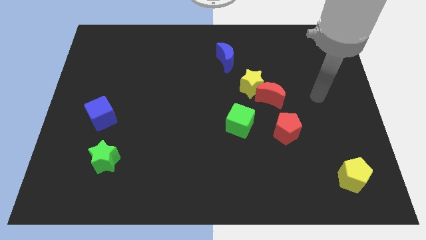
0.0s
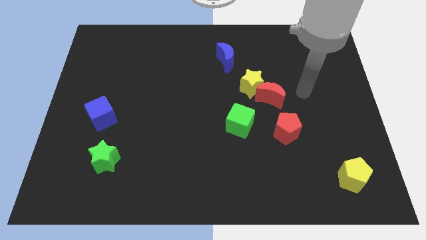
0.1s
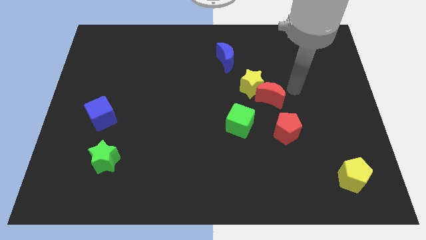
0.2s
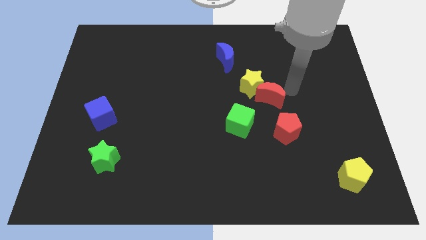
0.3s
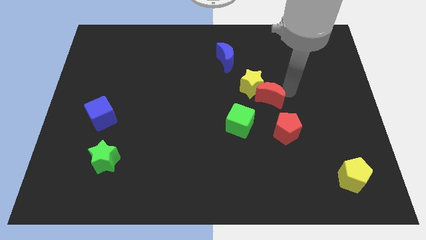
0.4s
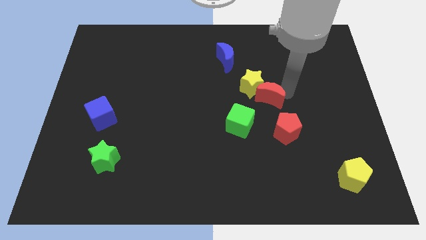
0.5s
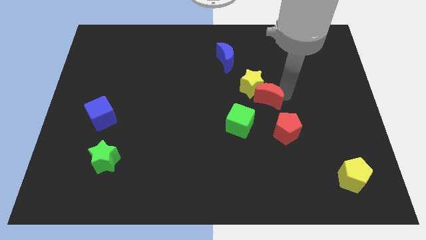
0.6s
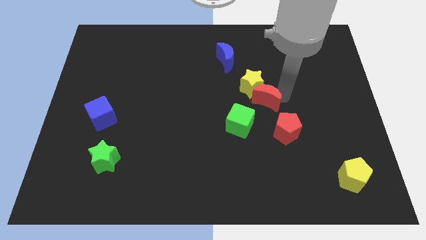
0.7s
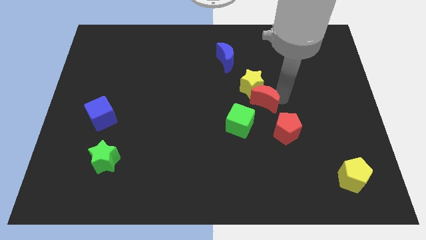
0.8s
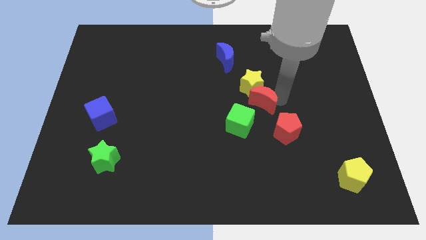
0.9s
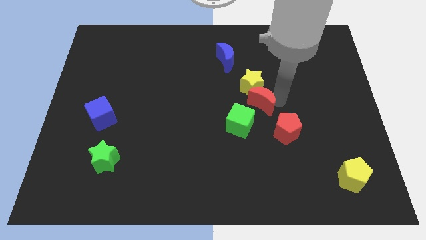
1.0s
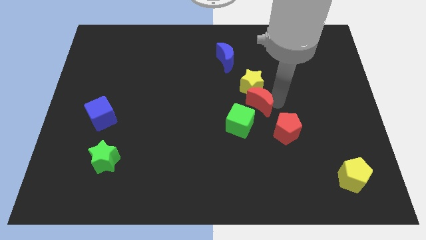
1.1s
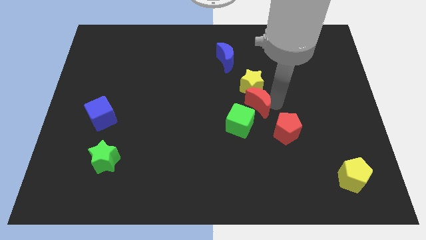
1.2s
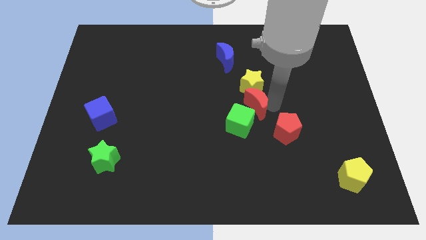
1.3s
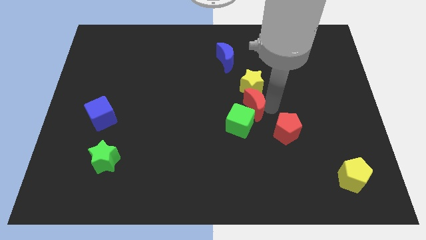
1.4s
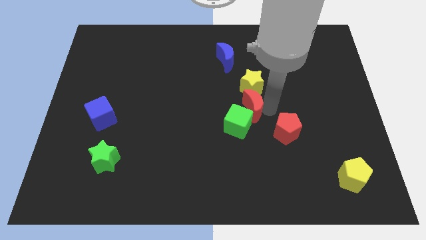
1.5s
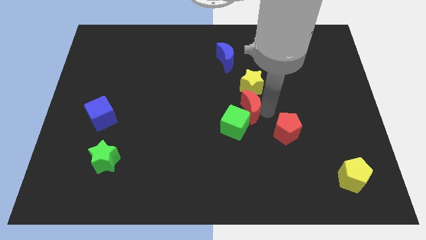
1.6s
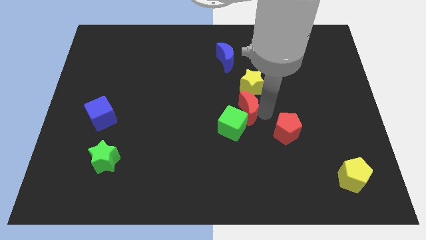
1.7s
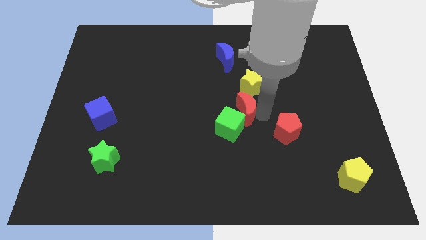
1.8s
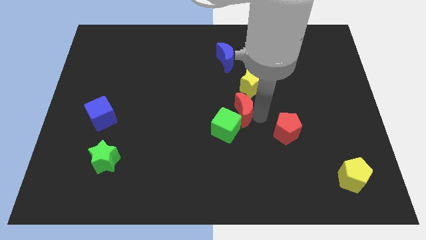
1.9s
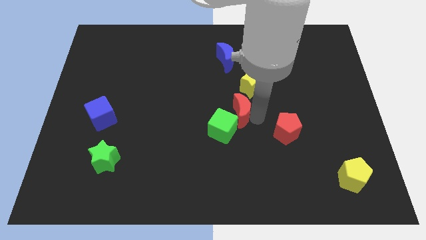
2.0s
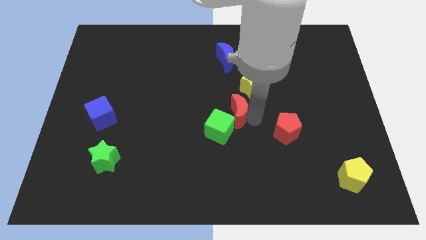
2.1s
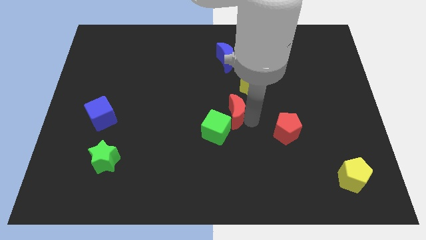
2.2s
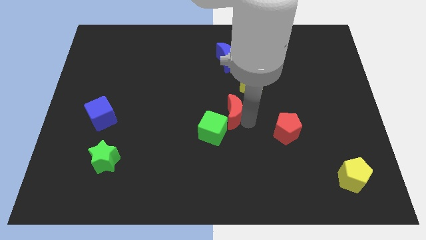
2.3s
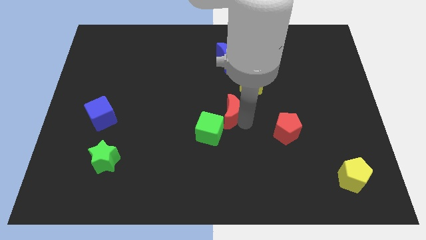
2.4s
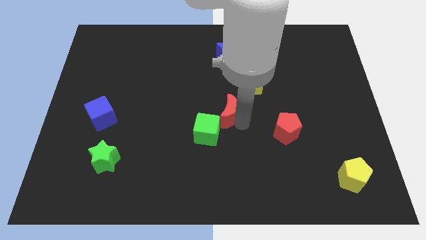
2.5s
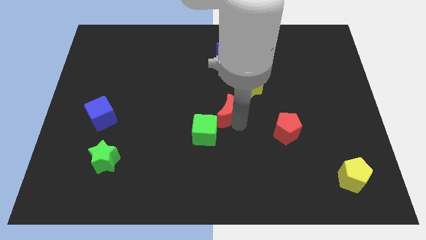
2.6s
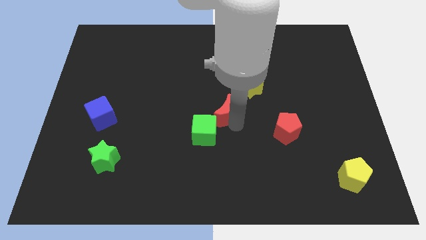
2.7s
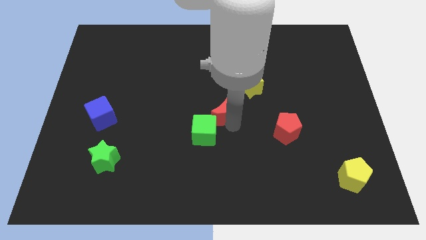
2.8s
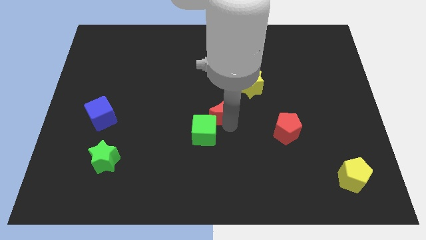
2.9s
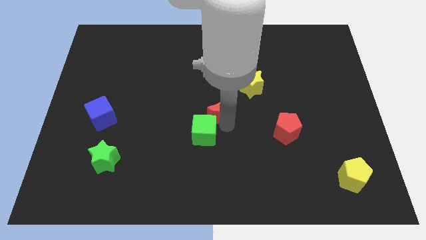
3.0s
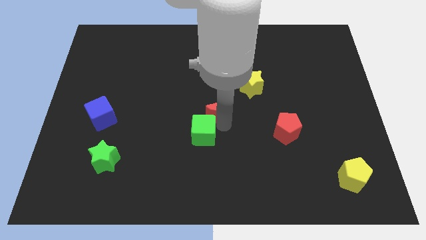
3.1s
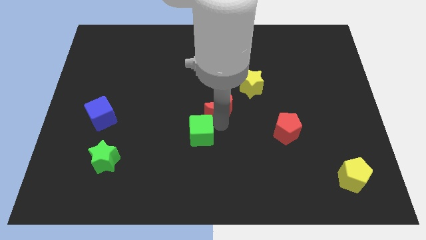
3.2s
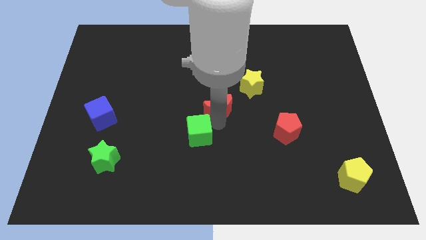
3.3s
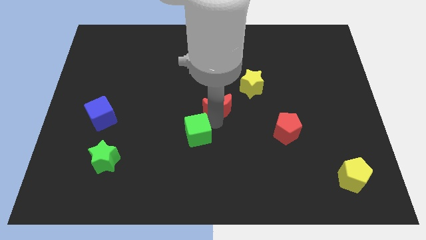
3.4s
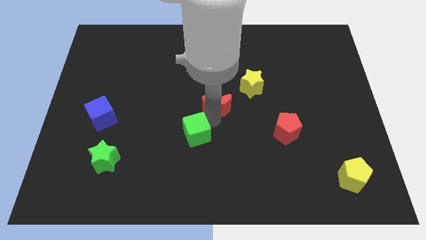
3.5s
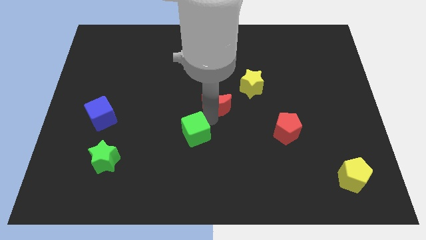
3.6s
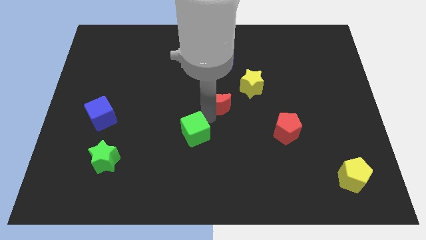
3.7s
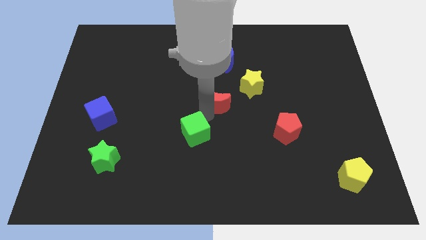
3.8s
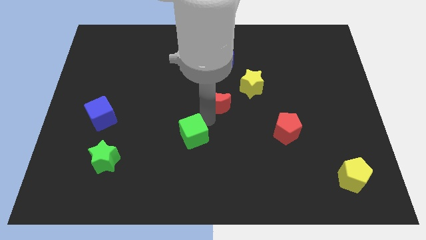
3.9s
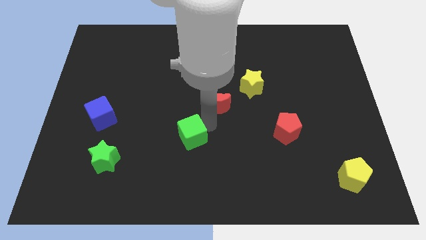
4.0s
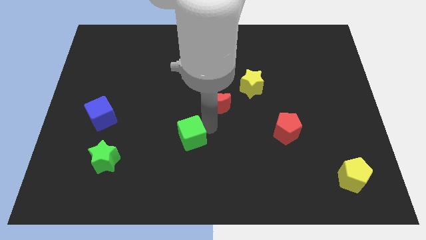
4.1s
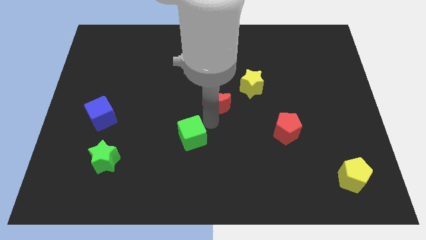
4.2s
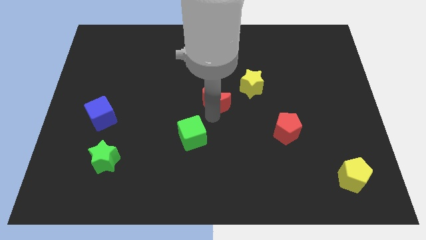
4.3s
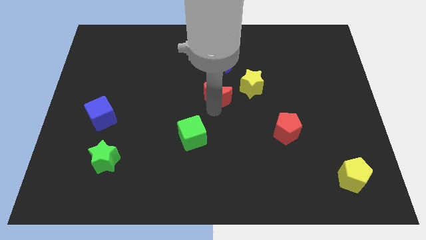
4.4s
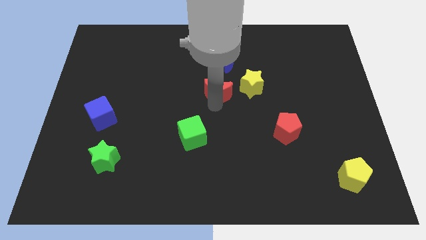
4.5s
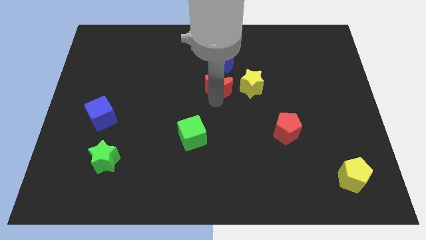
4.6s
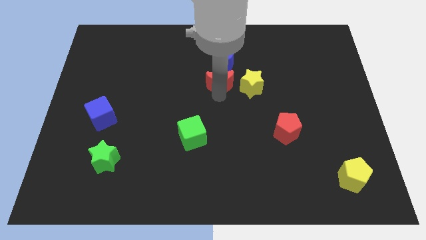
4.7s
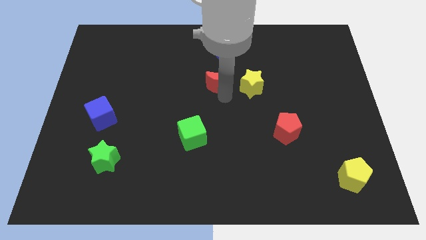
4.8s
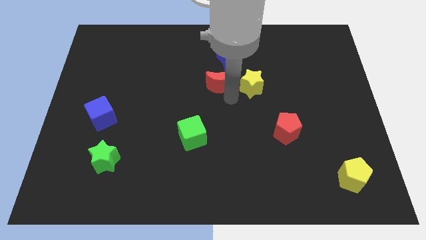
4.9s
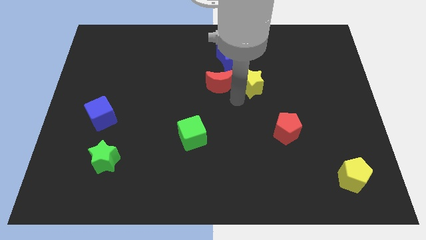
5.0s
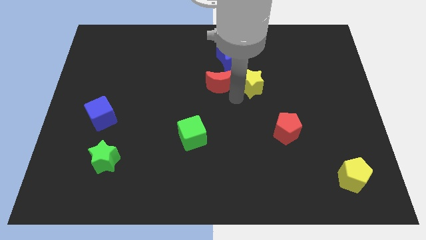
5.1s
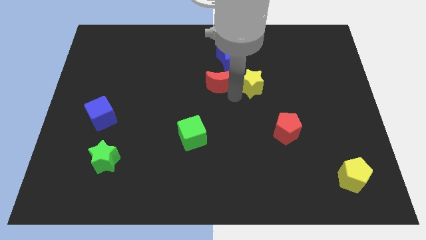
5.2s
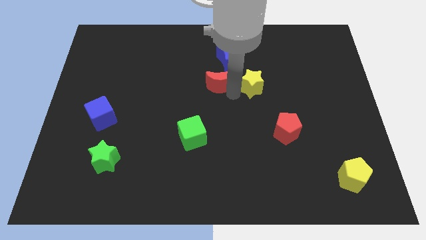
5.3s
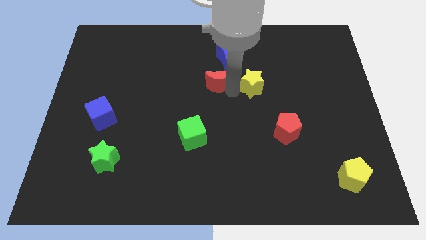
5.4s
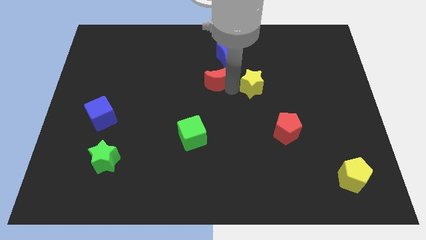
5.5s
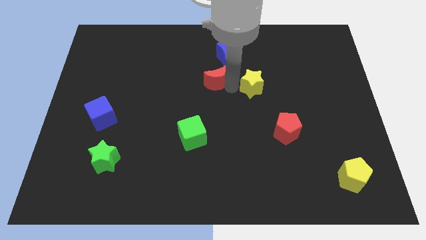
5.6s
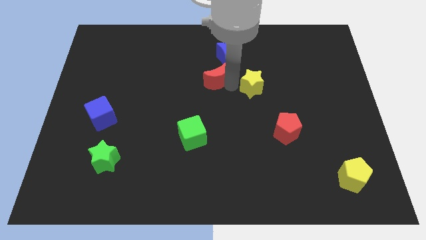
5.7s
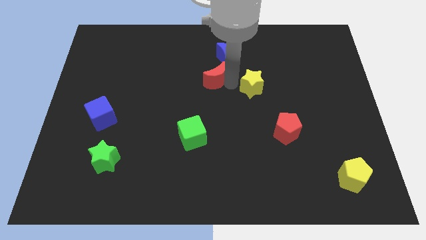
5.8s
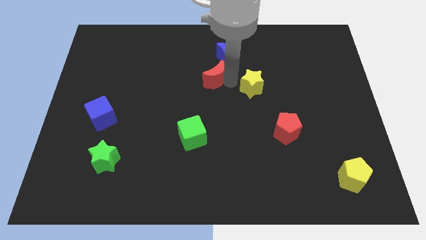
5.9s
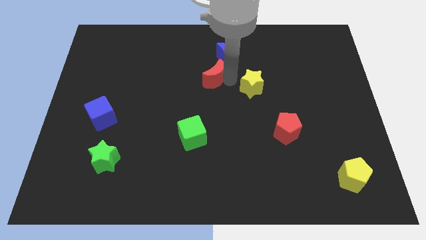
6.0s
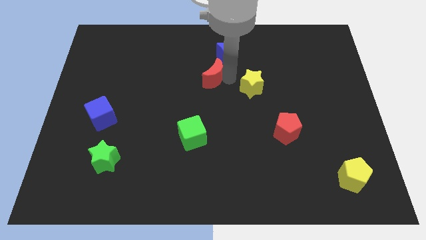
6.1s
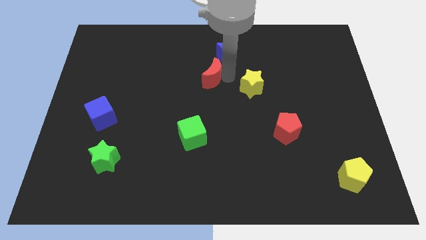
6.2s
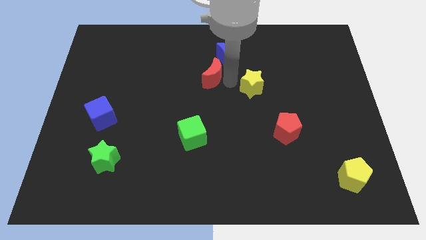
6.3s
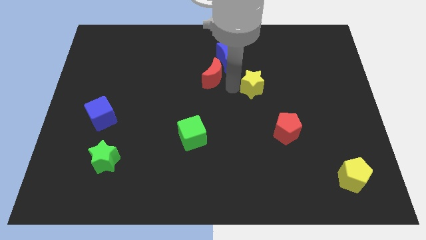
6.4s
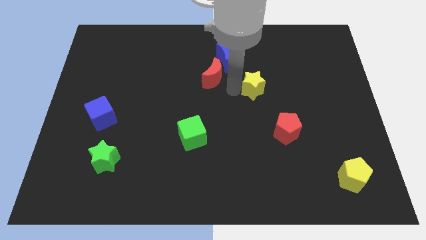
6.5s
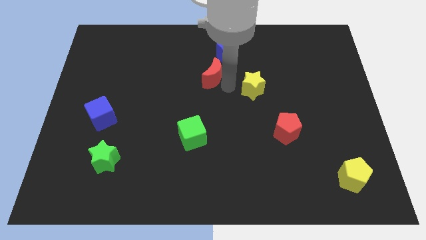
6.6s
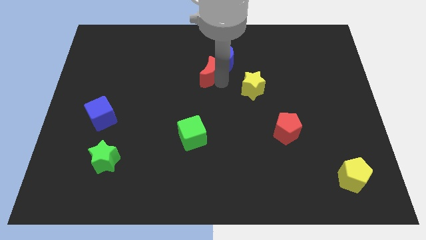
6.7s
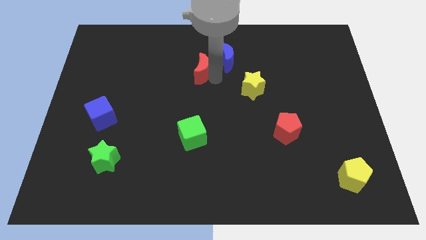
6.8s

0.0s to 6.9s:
put the red moon left of the blue moon
